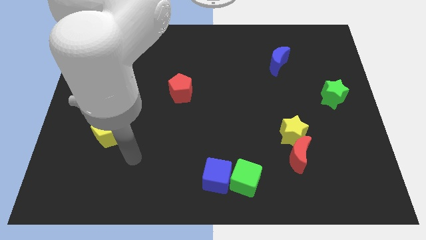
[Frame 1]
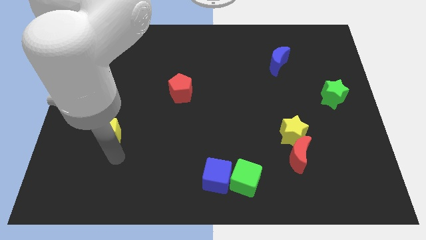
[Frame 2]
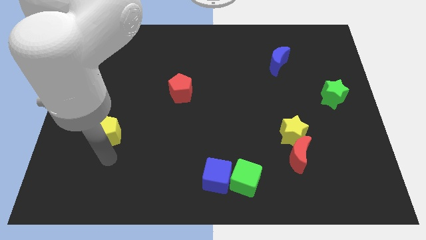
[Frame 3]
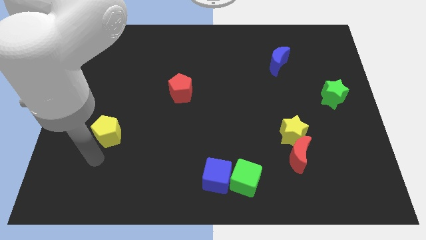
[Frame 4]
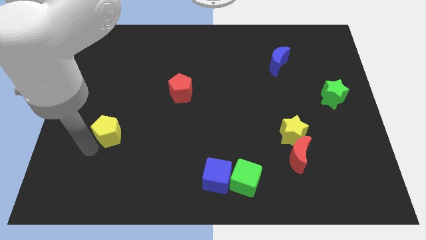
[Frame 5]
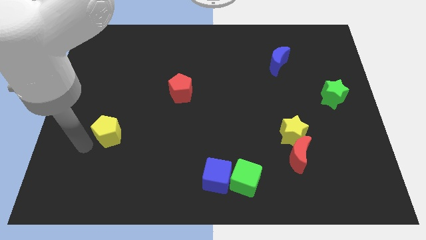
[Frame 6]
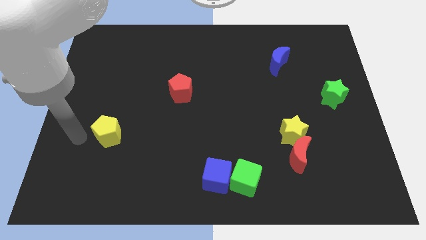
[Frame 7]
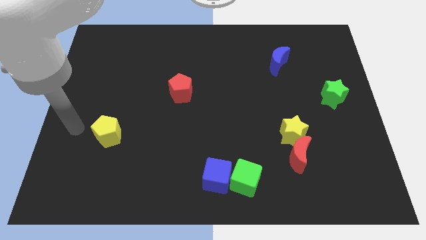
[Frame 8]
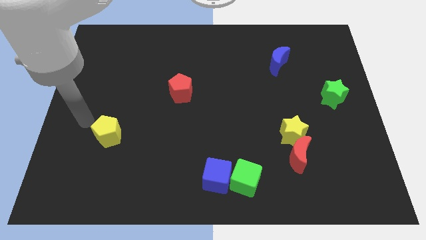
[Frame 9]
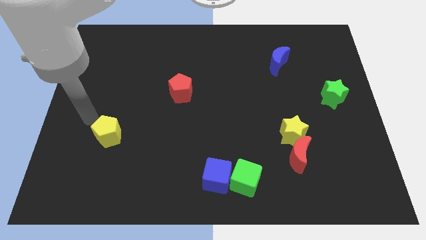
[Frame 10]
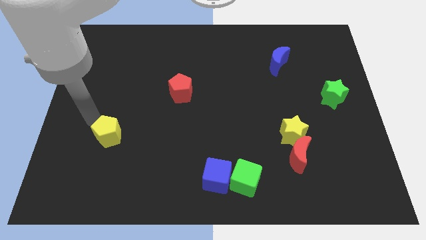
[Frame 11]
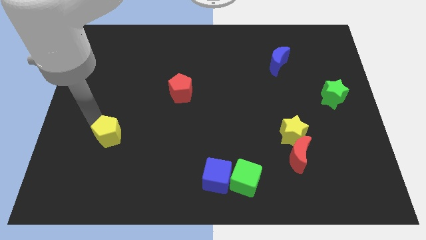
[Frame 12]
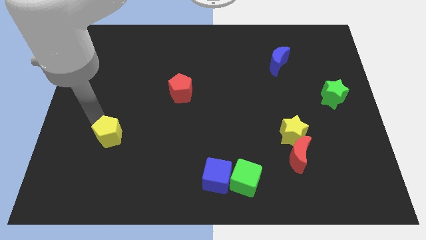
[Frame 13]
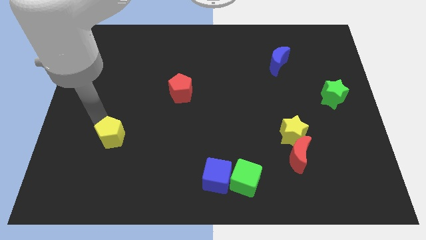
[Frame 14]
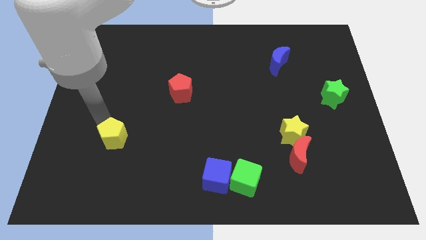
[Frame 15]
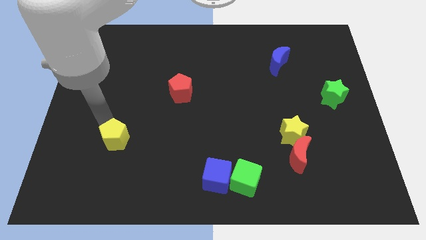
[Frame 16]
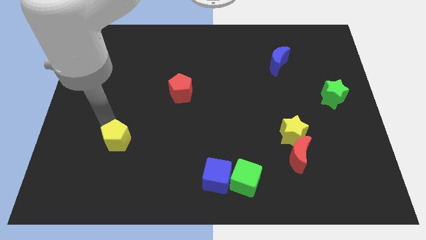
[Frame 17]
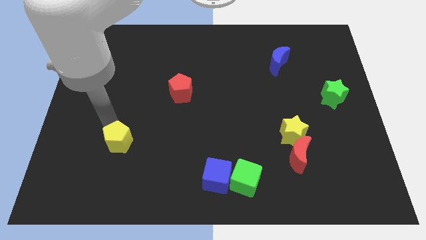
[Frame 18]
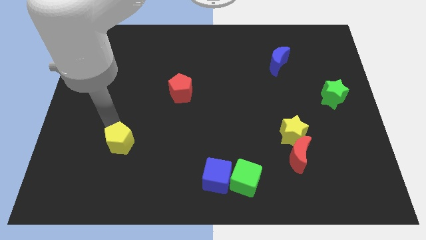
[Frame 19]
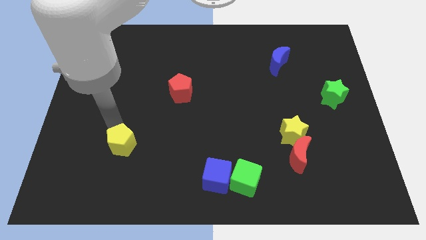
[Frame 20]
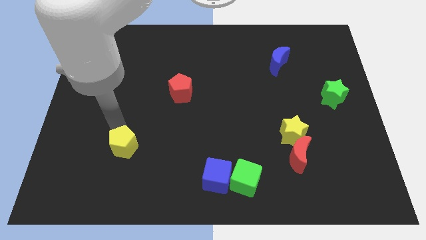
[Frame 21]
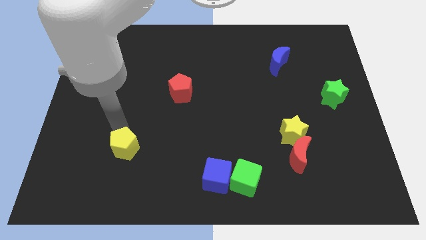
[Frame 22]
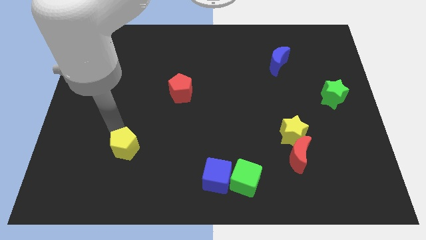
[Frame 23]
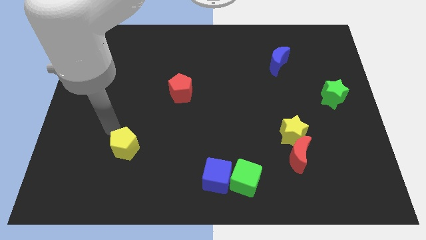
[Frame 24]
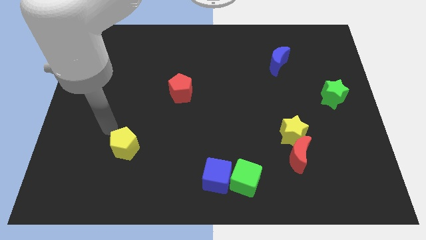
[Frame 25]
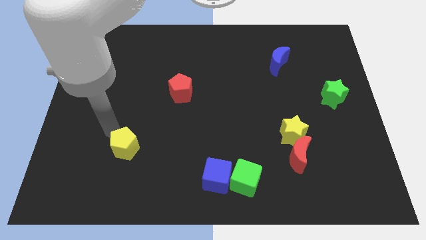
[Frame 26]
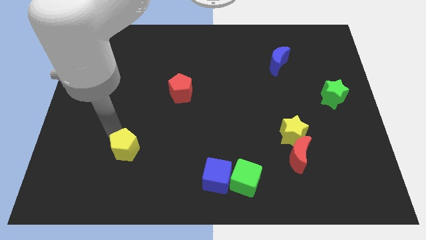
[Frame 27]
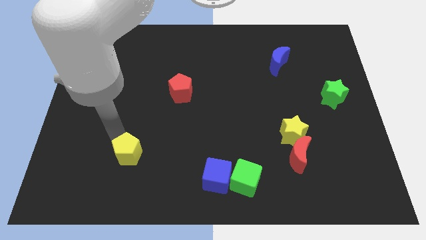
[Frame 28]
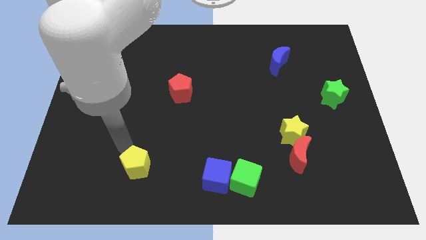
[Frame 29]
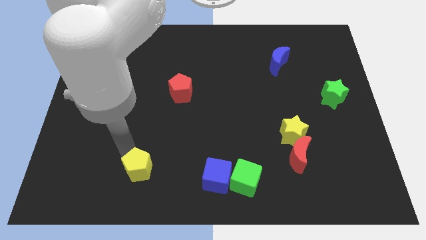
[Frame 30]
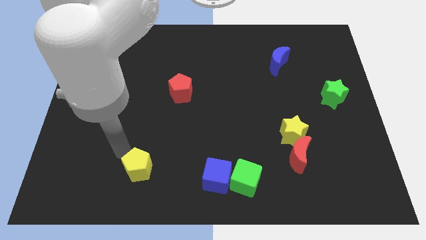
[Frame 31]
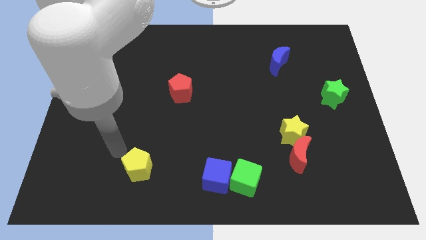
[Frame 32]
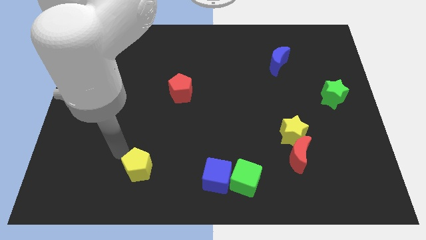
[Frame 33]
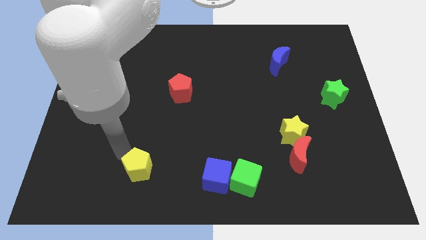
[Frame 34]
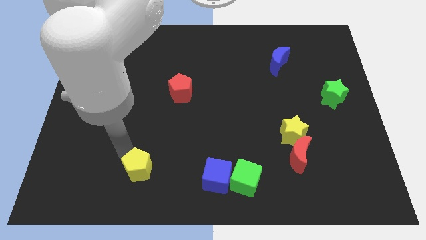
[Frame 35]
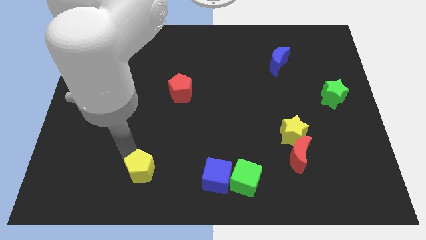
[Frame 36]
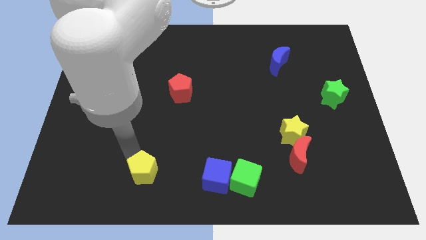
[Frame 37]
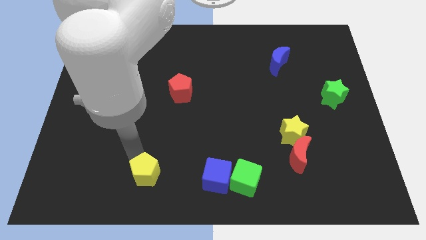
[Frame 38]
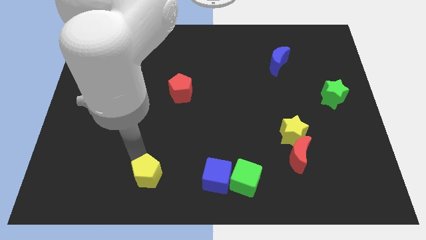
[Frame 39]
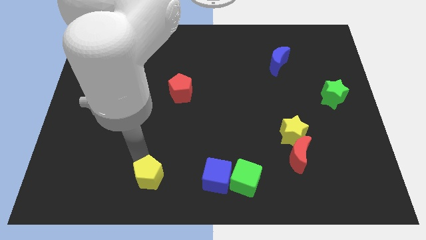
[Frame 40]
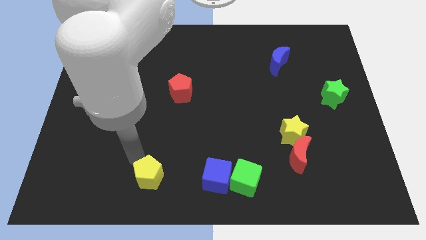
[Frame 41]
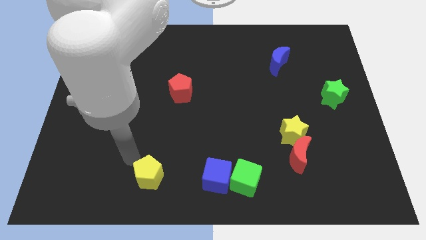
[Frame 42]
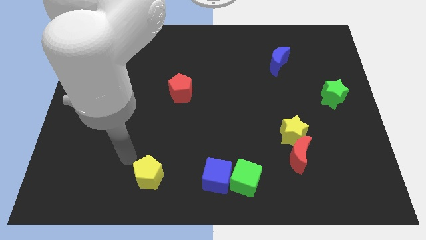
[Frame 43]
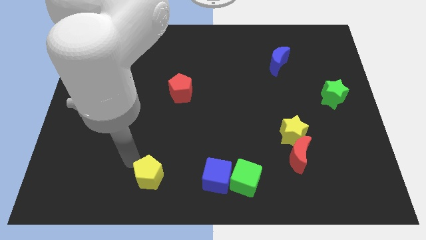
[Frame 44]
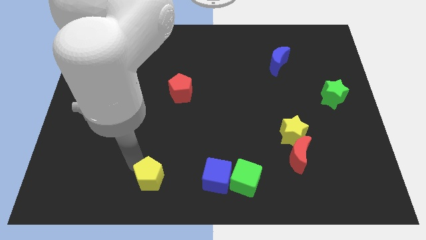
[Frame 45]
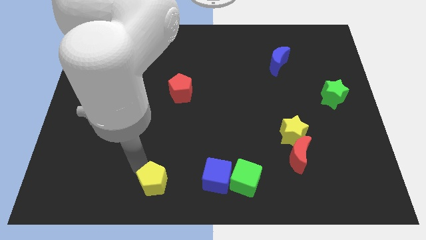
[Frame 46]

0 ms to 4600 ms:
push the yellow pentagon to the bottom side

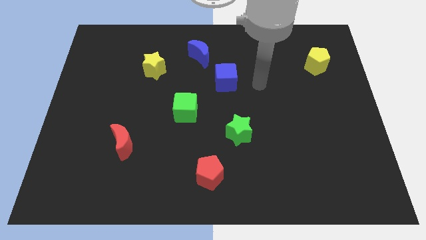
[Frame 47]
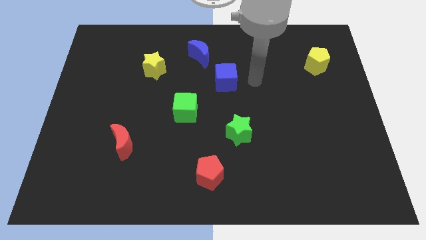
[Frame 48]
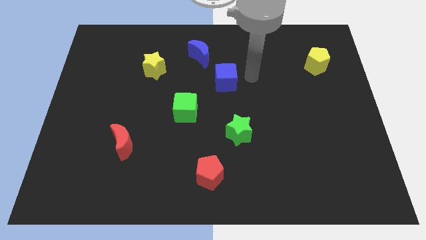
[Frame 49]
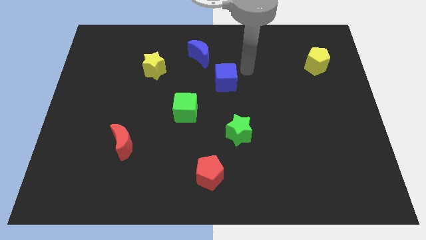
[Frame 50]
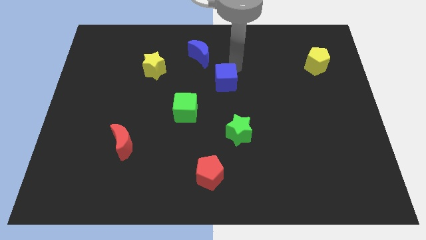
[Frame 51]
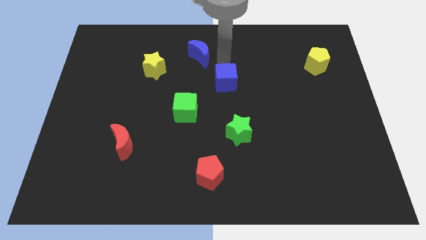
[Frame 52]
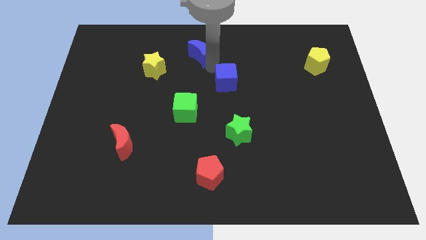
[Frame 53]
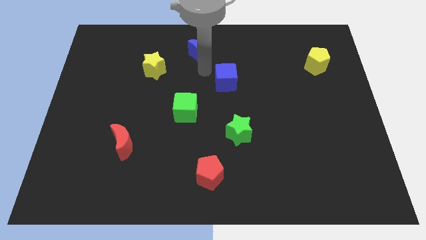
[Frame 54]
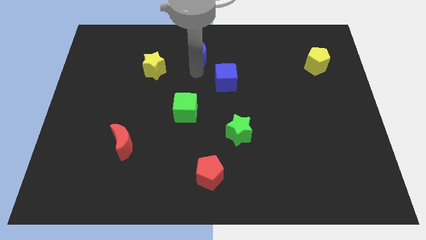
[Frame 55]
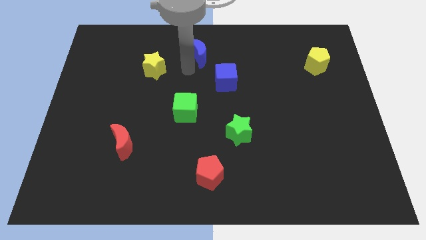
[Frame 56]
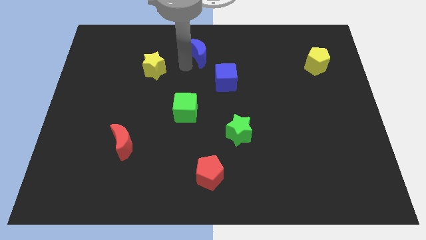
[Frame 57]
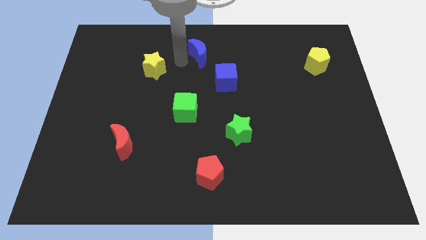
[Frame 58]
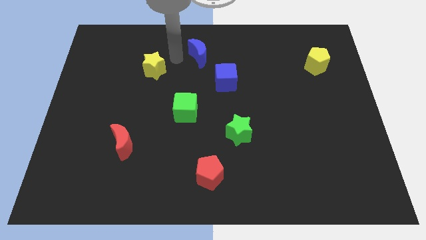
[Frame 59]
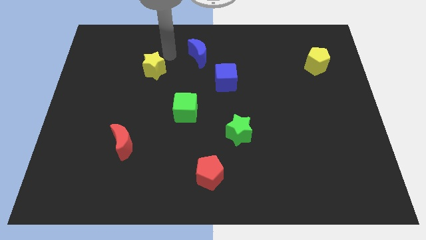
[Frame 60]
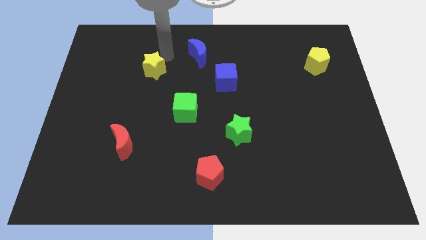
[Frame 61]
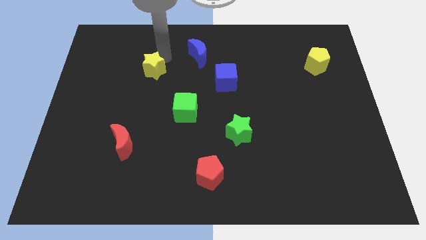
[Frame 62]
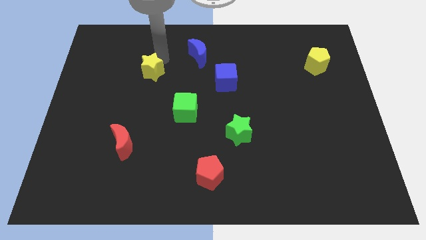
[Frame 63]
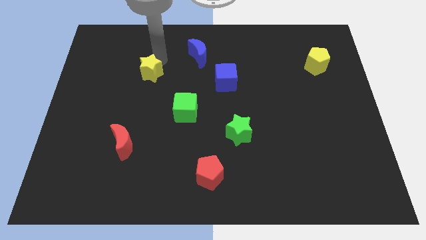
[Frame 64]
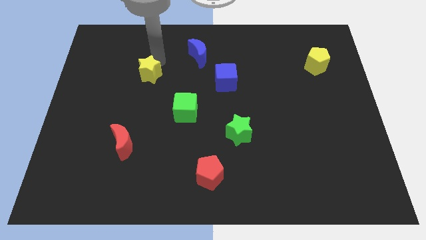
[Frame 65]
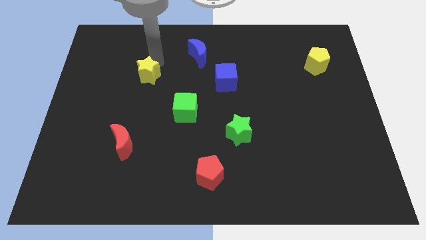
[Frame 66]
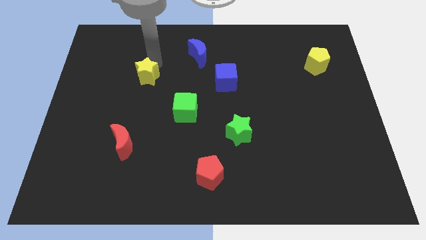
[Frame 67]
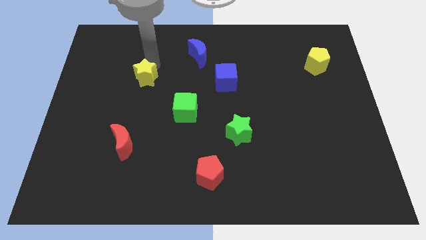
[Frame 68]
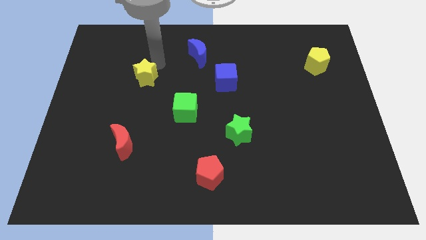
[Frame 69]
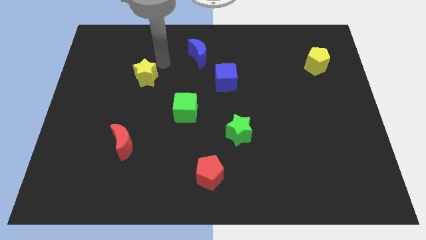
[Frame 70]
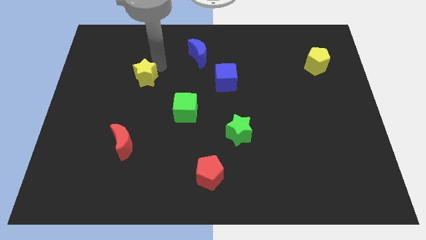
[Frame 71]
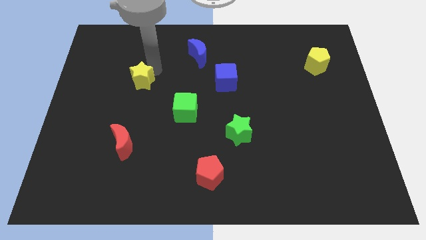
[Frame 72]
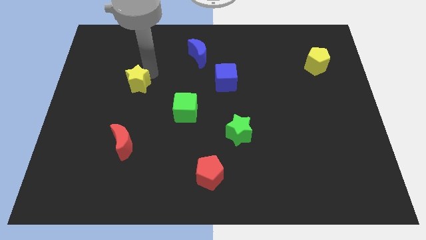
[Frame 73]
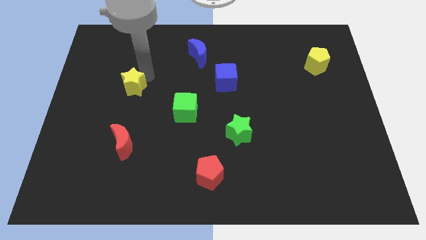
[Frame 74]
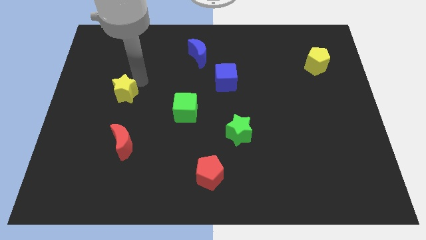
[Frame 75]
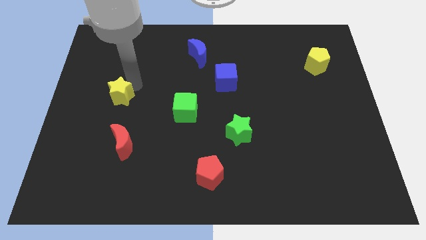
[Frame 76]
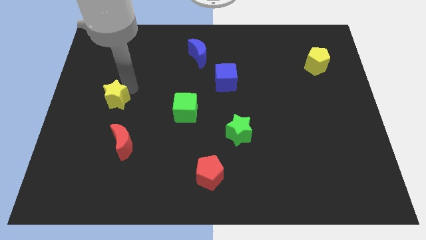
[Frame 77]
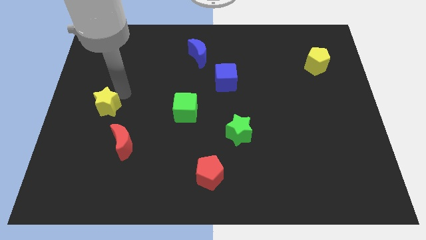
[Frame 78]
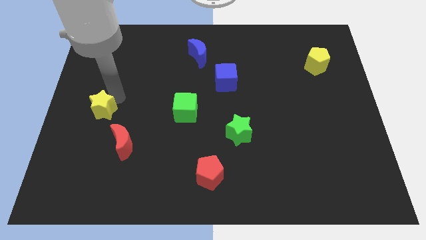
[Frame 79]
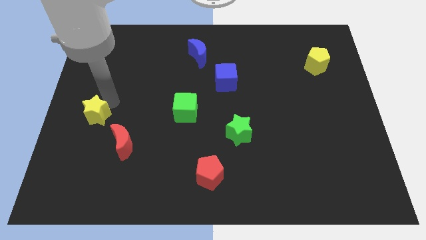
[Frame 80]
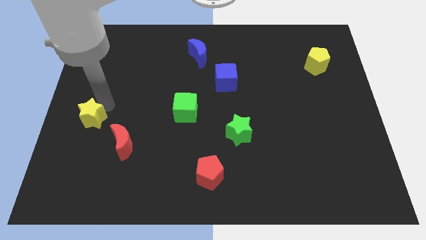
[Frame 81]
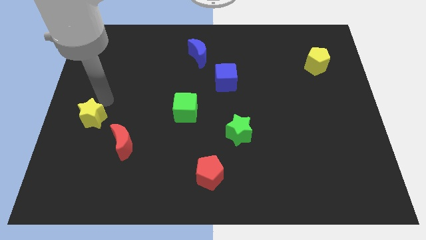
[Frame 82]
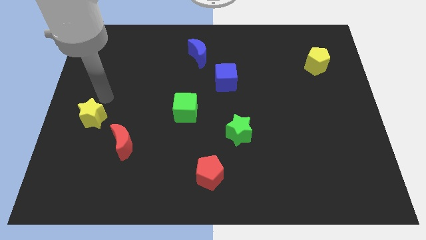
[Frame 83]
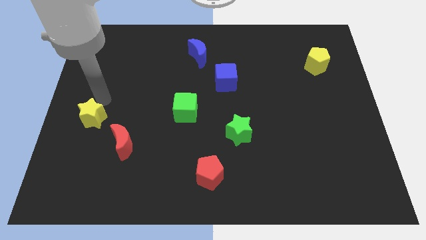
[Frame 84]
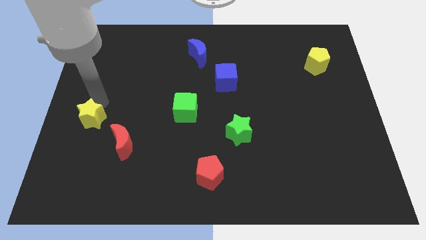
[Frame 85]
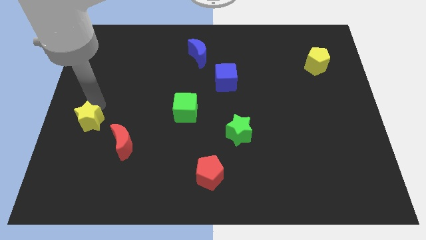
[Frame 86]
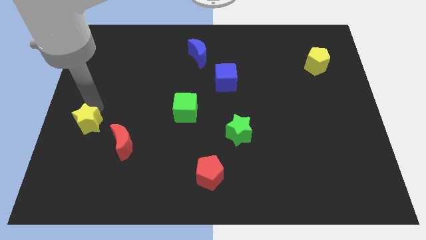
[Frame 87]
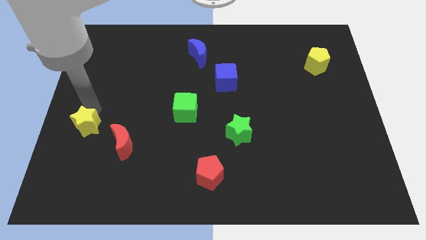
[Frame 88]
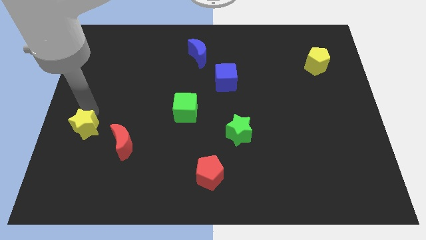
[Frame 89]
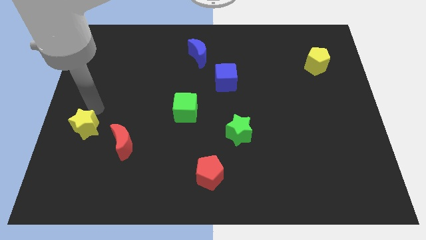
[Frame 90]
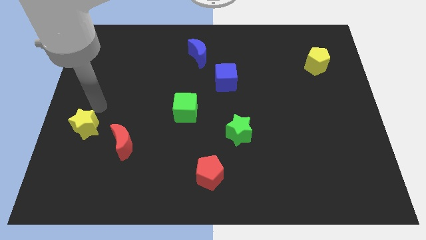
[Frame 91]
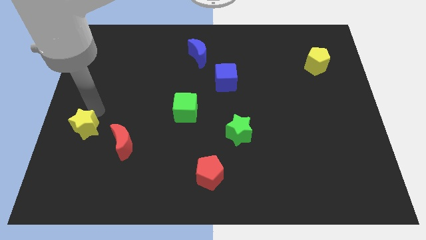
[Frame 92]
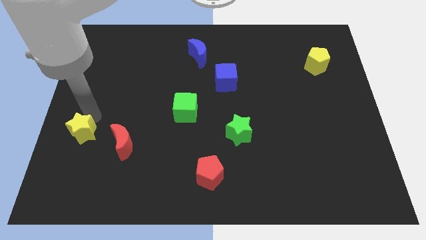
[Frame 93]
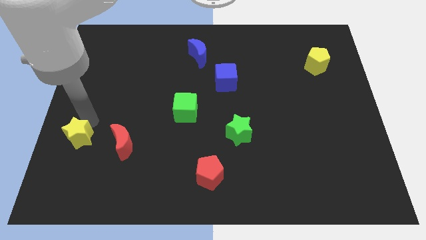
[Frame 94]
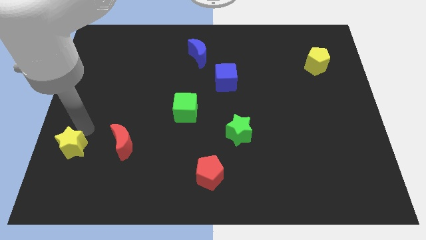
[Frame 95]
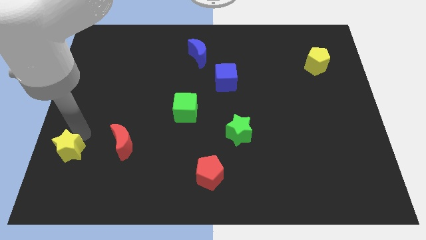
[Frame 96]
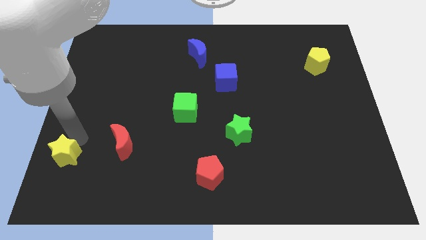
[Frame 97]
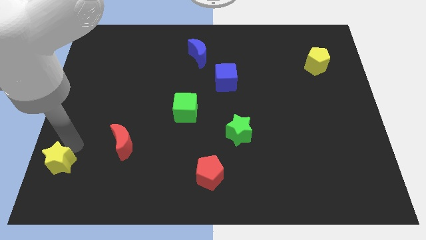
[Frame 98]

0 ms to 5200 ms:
push the yellow star to the bottom left corner
